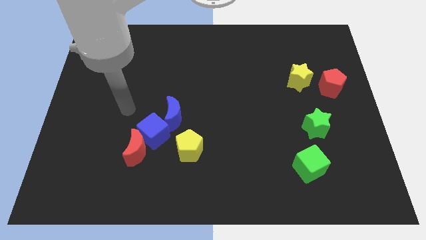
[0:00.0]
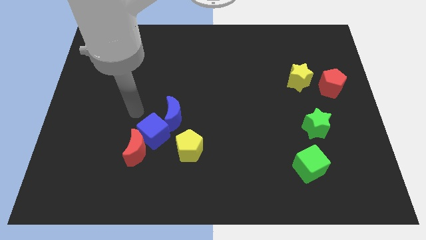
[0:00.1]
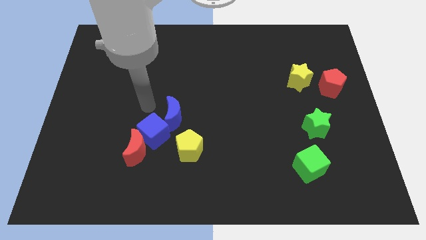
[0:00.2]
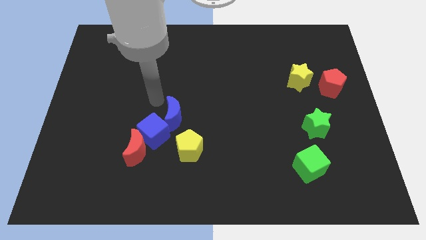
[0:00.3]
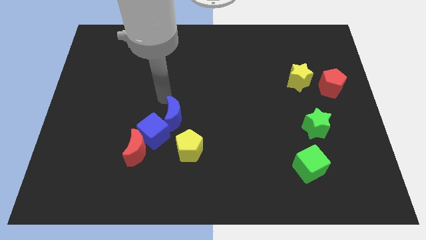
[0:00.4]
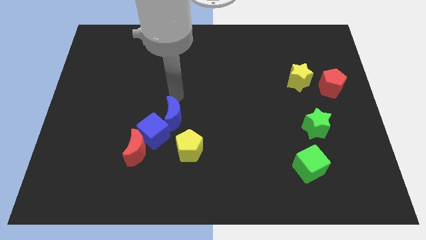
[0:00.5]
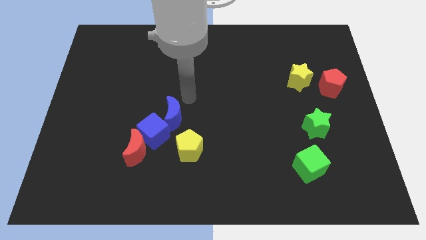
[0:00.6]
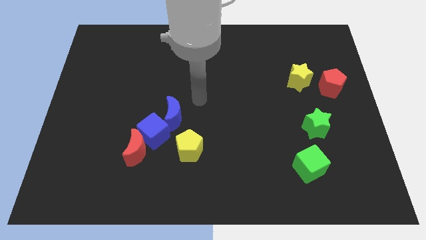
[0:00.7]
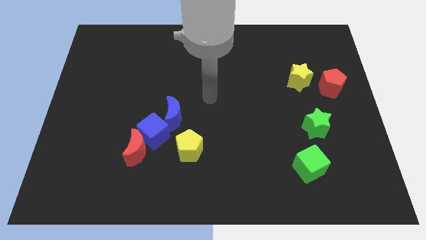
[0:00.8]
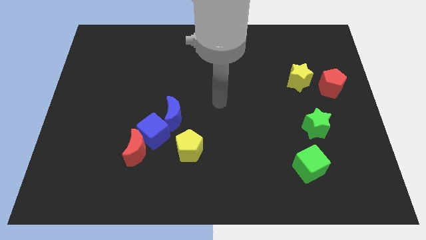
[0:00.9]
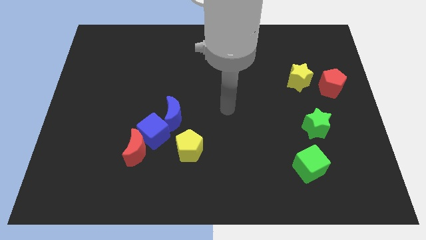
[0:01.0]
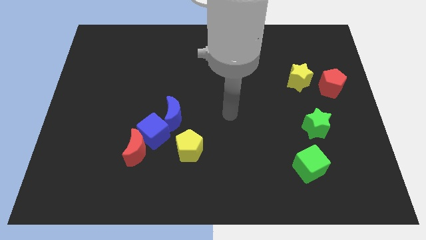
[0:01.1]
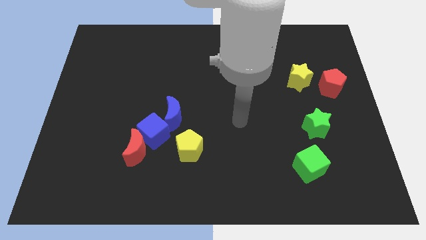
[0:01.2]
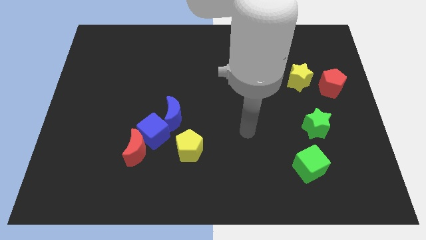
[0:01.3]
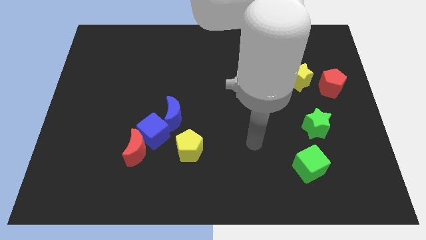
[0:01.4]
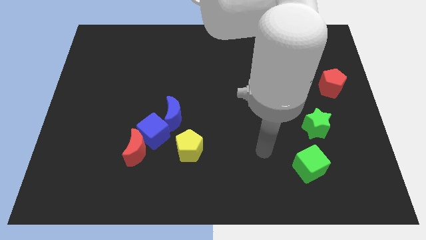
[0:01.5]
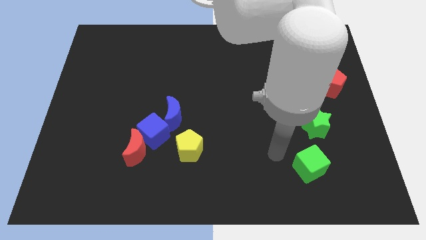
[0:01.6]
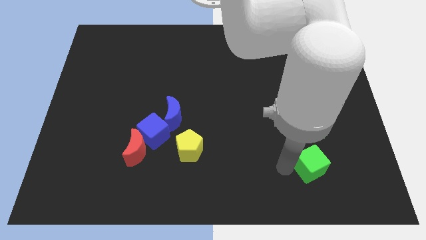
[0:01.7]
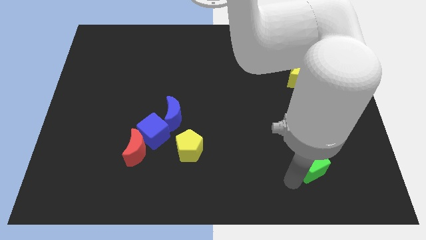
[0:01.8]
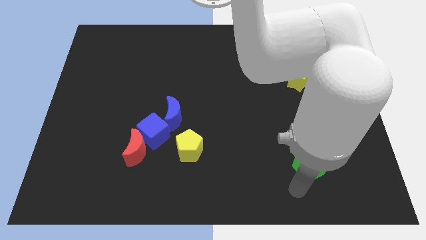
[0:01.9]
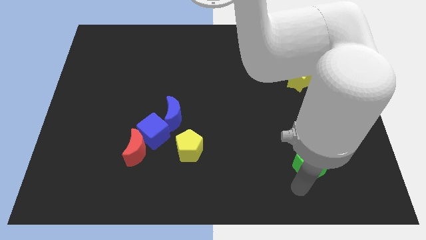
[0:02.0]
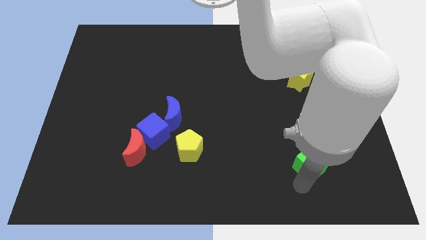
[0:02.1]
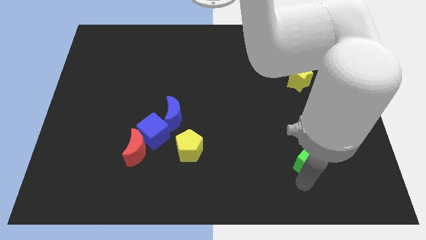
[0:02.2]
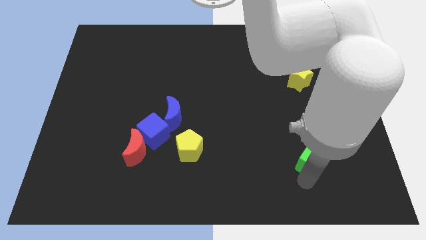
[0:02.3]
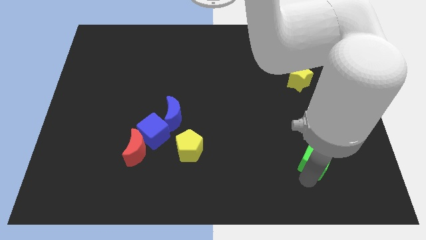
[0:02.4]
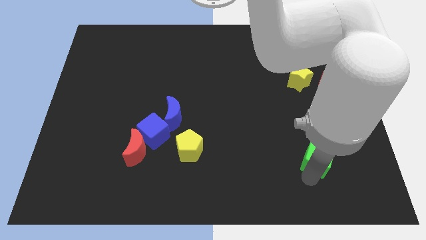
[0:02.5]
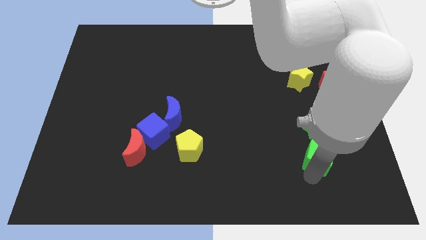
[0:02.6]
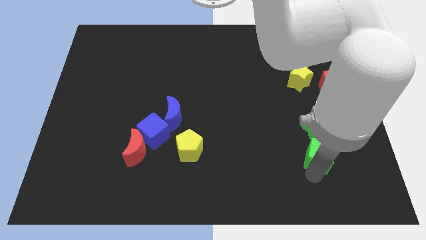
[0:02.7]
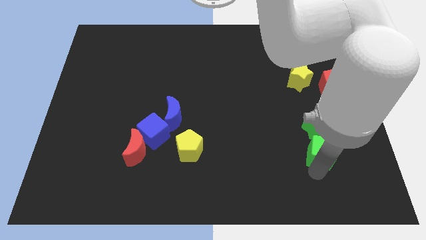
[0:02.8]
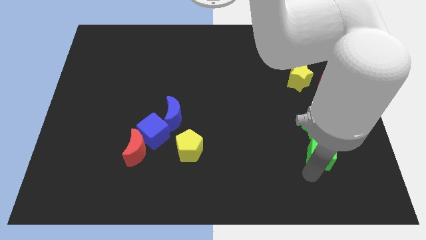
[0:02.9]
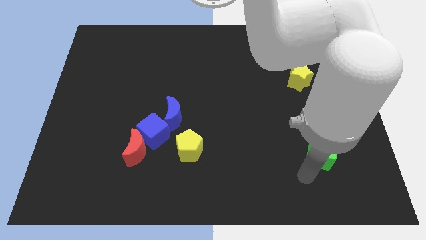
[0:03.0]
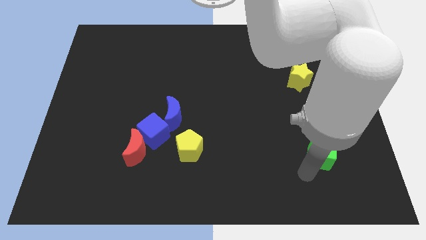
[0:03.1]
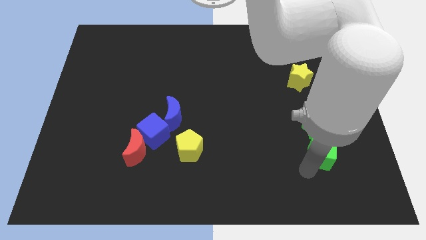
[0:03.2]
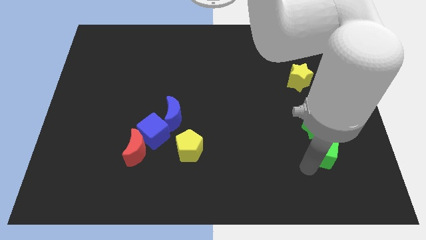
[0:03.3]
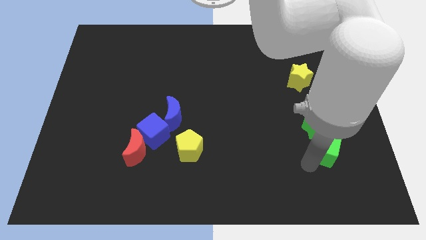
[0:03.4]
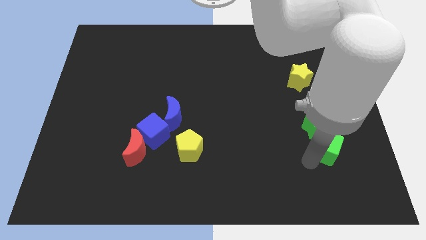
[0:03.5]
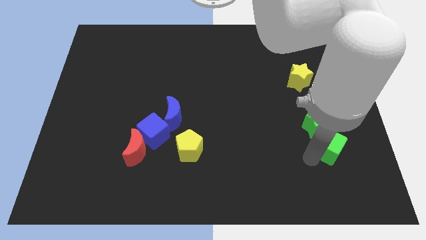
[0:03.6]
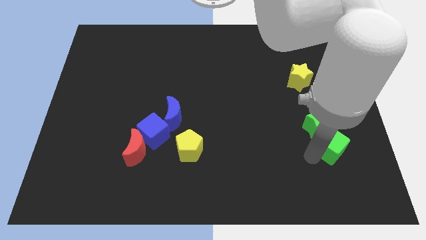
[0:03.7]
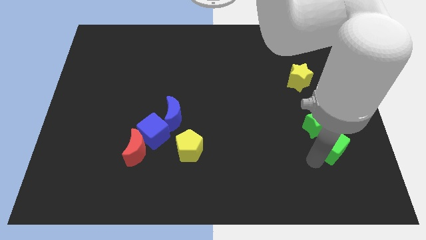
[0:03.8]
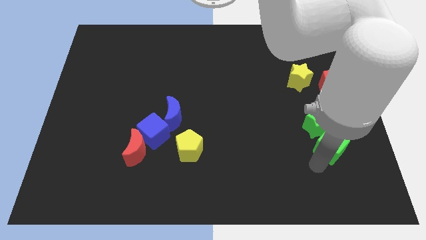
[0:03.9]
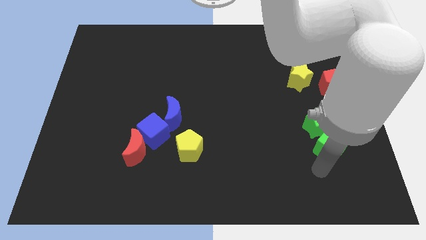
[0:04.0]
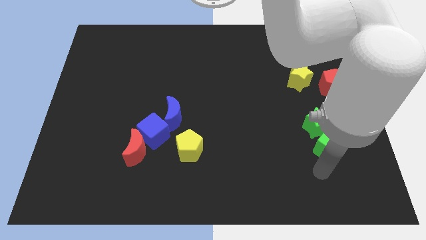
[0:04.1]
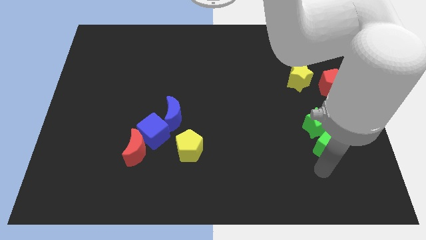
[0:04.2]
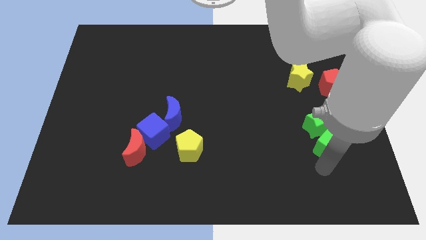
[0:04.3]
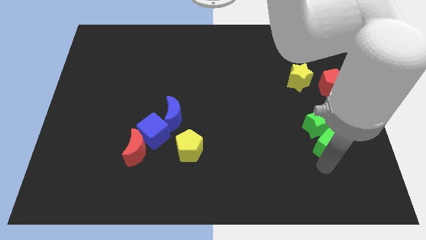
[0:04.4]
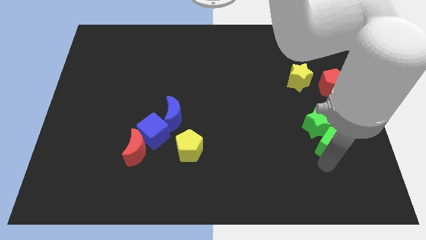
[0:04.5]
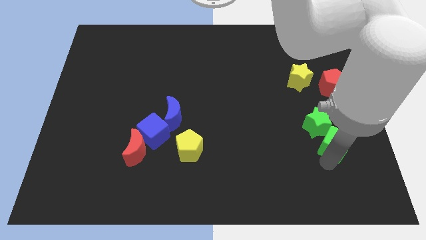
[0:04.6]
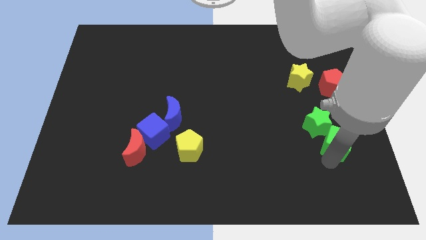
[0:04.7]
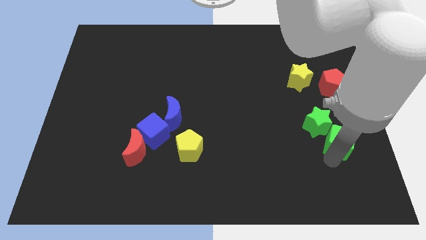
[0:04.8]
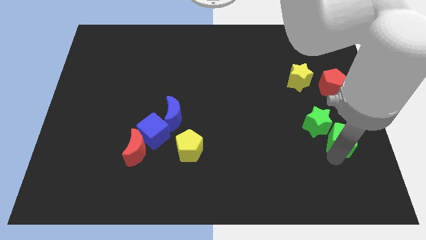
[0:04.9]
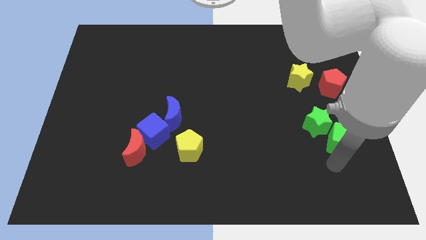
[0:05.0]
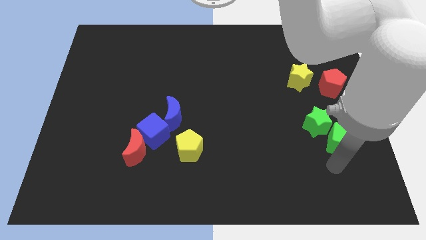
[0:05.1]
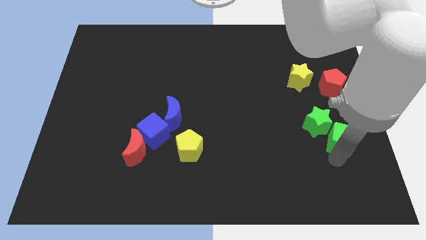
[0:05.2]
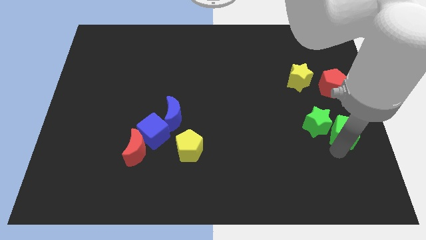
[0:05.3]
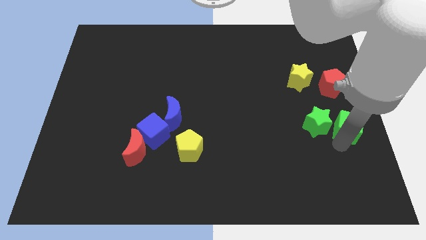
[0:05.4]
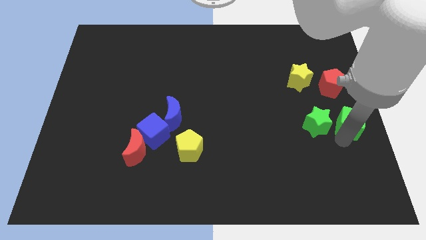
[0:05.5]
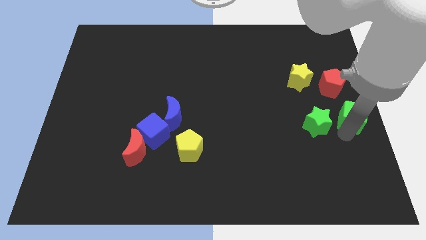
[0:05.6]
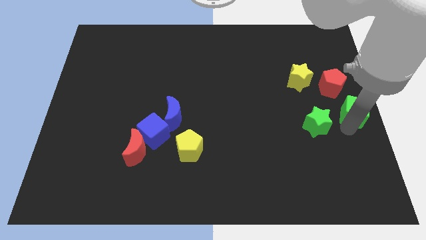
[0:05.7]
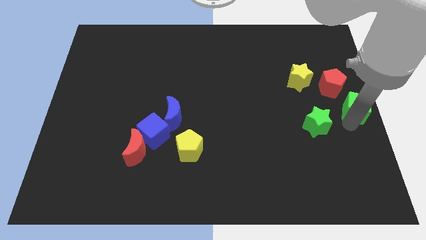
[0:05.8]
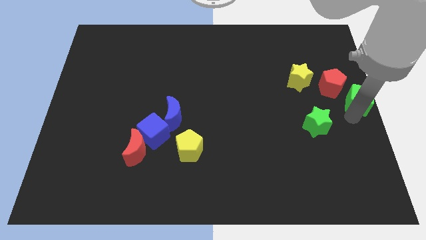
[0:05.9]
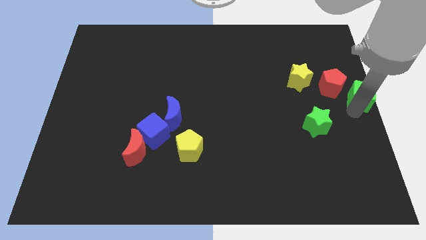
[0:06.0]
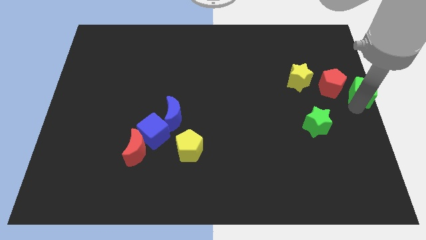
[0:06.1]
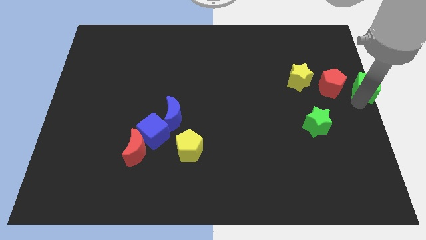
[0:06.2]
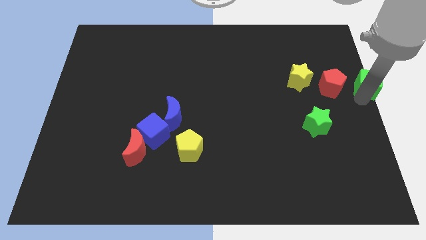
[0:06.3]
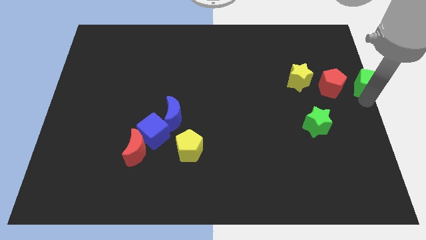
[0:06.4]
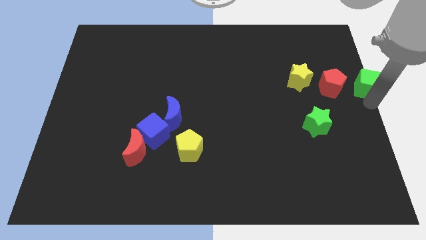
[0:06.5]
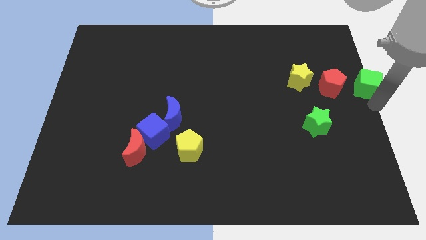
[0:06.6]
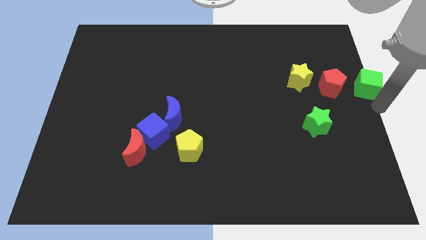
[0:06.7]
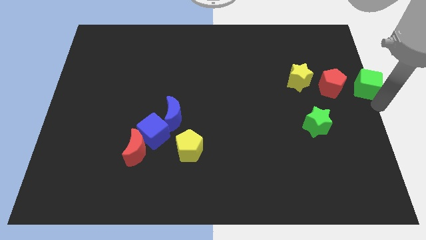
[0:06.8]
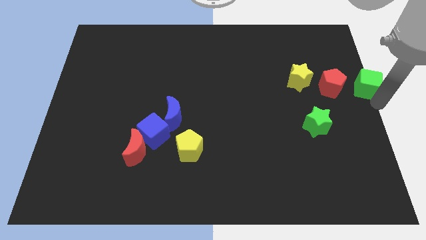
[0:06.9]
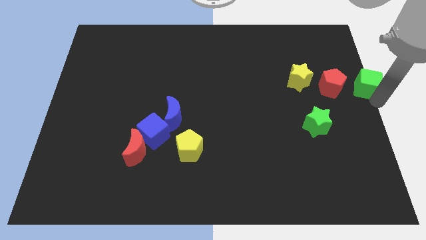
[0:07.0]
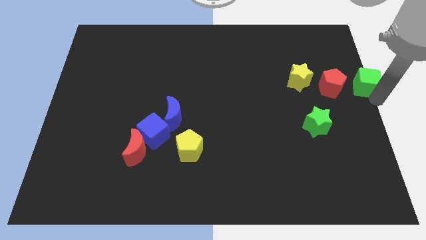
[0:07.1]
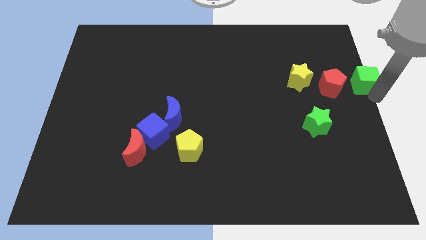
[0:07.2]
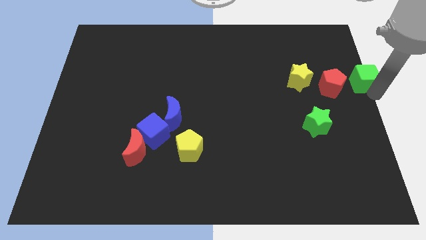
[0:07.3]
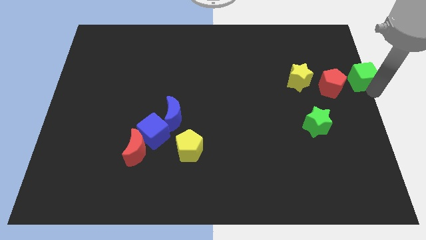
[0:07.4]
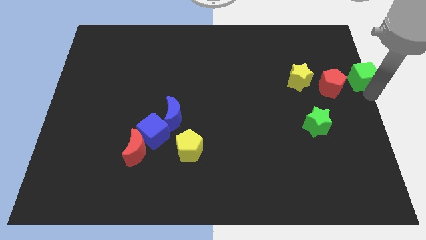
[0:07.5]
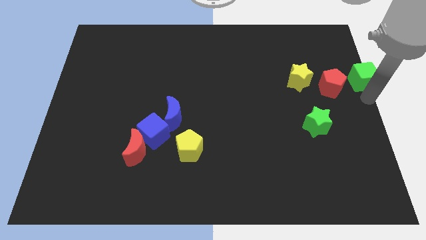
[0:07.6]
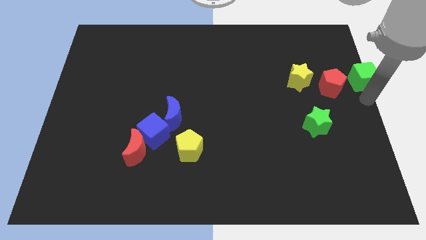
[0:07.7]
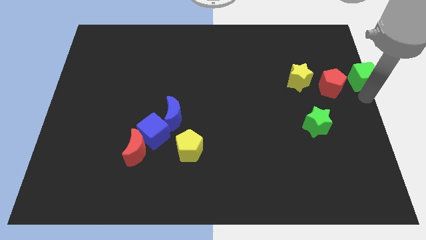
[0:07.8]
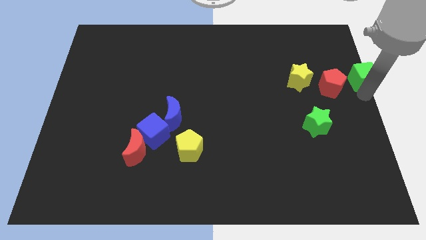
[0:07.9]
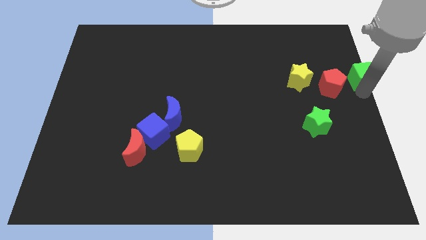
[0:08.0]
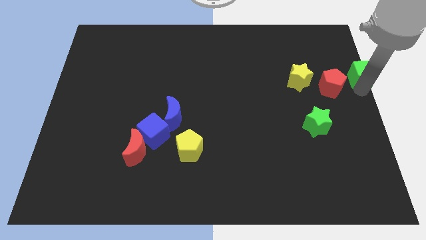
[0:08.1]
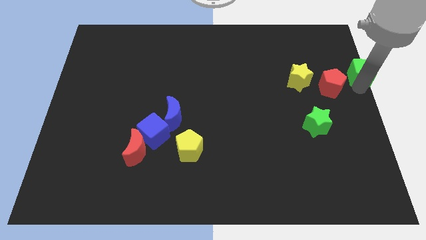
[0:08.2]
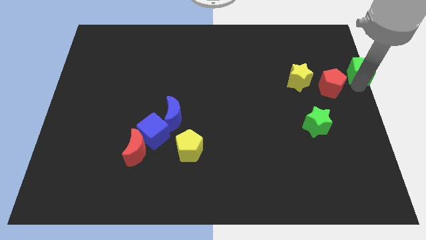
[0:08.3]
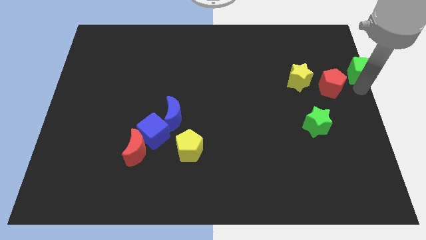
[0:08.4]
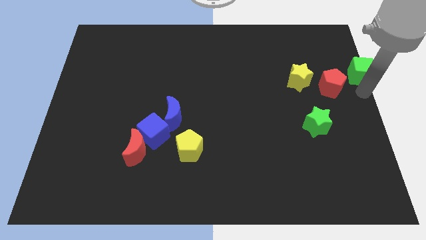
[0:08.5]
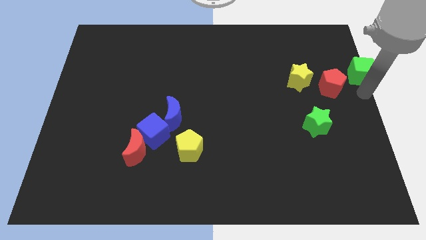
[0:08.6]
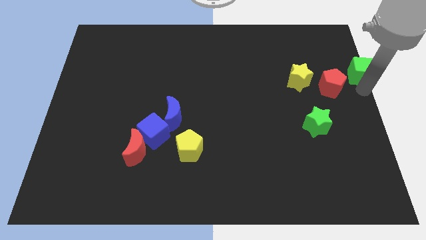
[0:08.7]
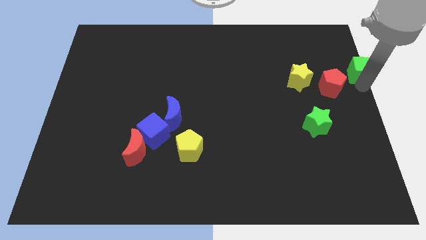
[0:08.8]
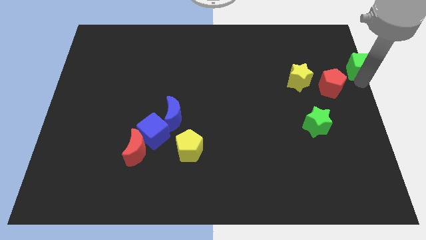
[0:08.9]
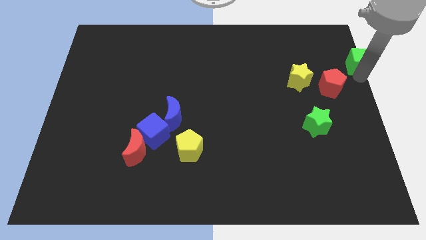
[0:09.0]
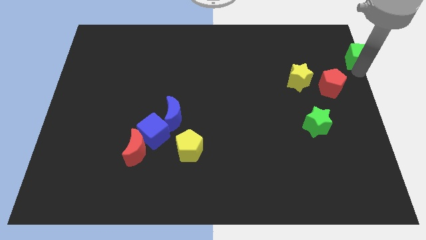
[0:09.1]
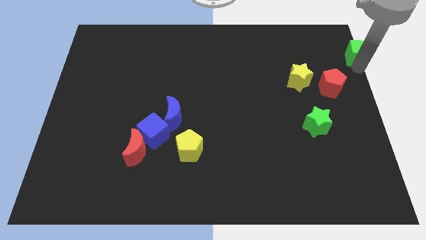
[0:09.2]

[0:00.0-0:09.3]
move the green cube to the top right corner
